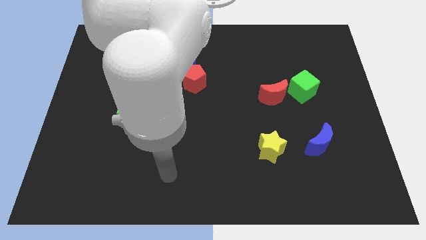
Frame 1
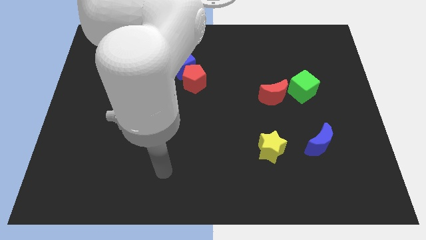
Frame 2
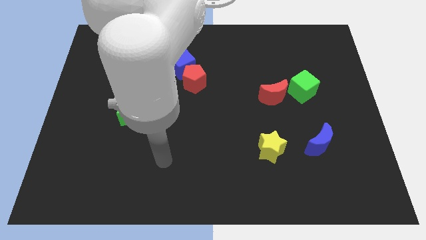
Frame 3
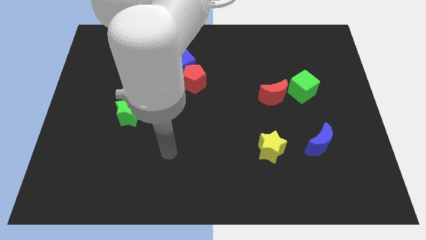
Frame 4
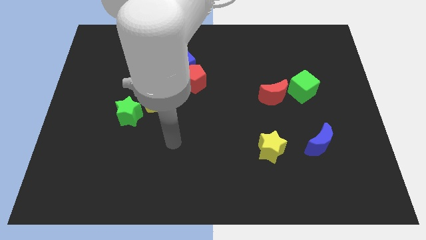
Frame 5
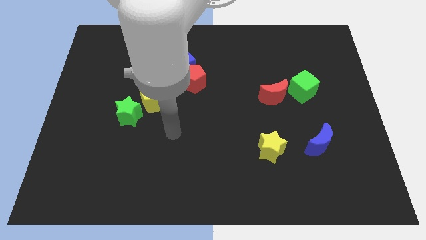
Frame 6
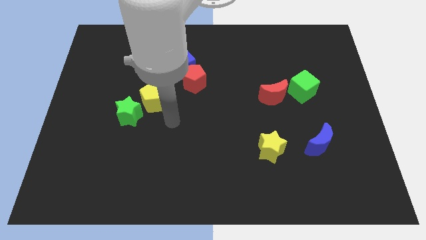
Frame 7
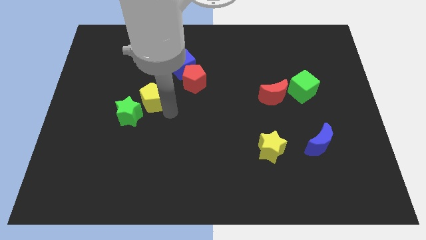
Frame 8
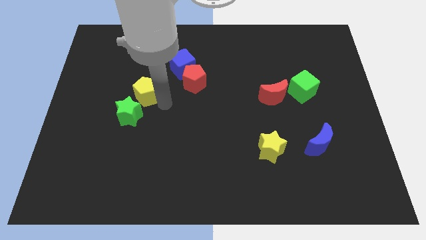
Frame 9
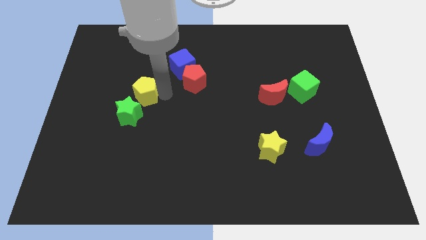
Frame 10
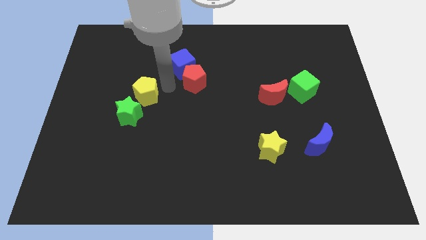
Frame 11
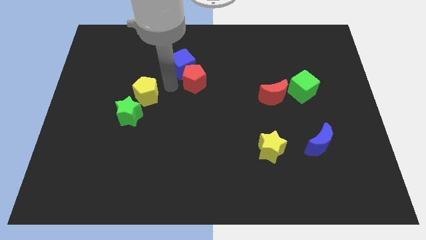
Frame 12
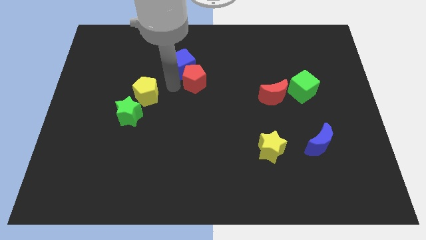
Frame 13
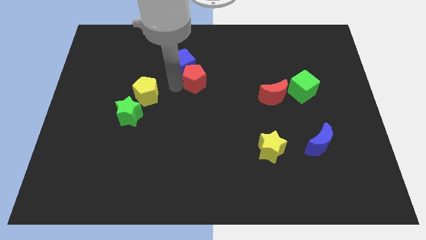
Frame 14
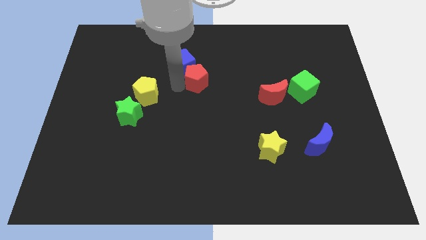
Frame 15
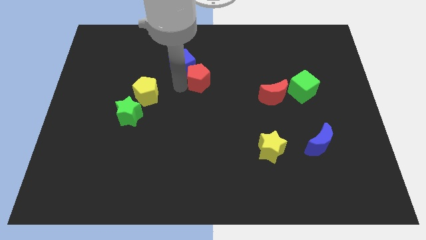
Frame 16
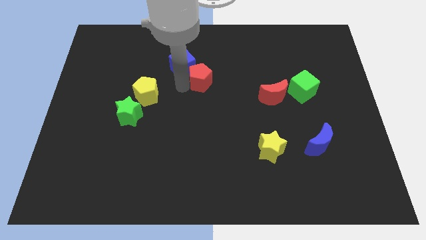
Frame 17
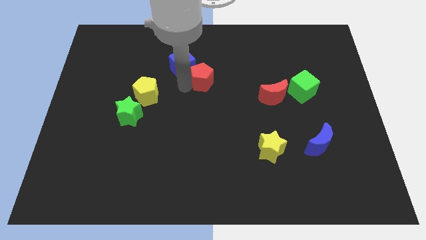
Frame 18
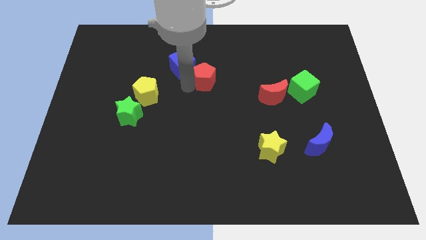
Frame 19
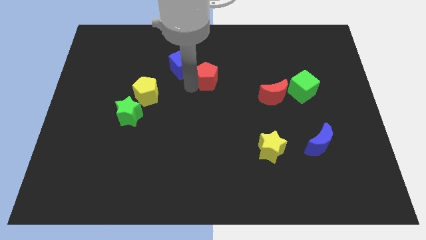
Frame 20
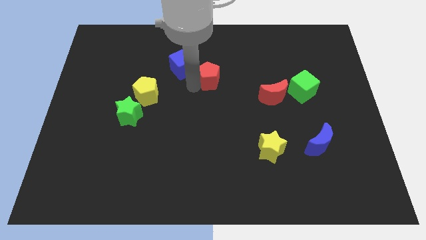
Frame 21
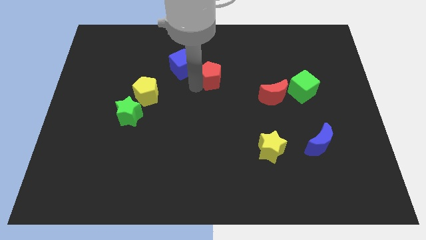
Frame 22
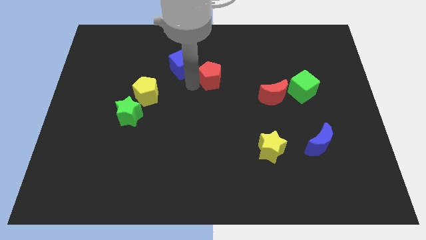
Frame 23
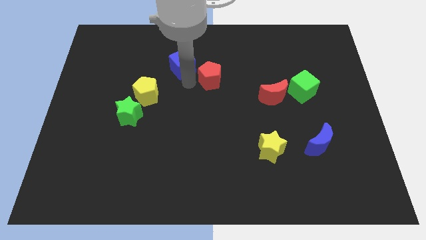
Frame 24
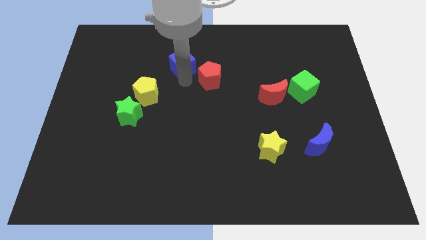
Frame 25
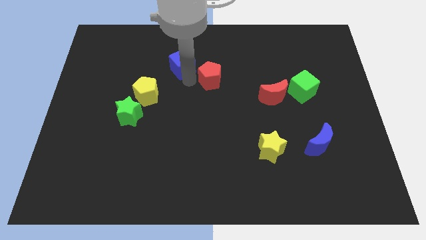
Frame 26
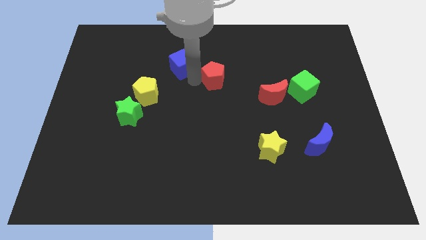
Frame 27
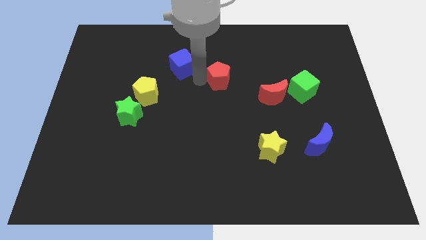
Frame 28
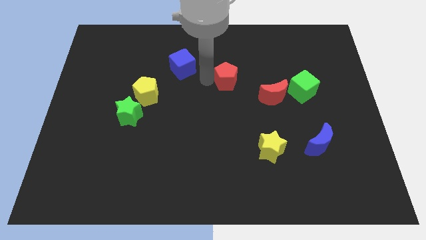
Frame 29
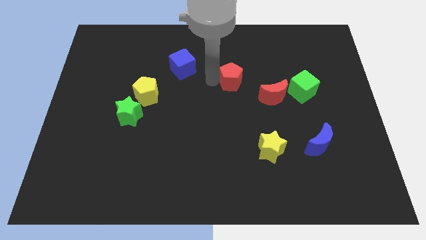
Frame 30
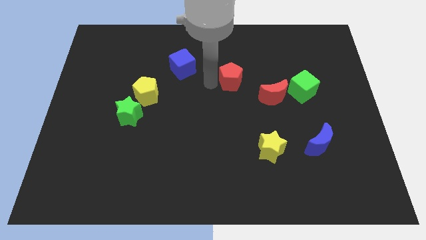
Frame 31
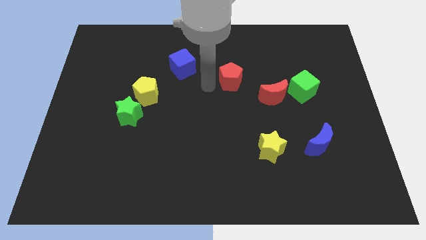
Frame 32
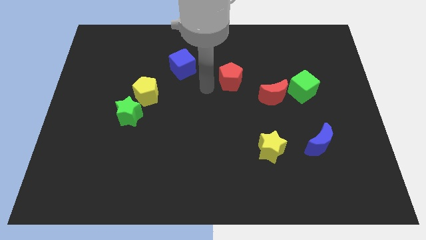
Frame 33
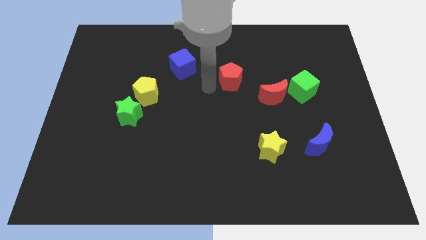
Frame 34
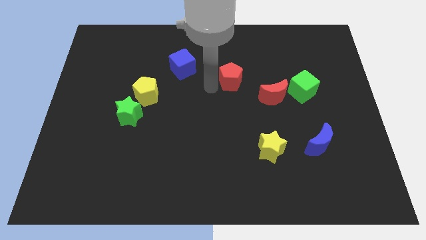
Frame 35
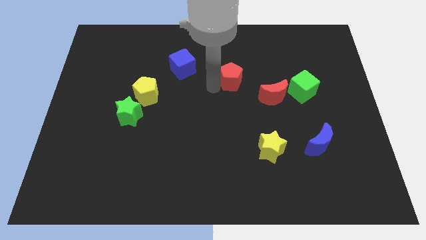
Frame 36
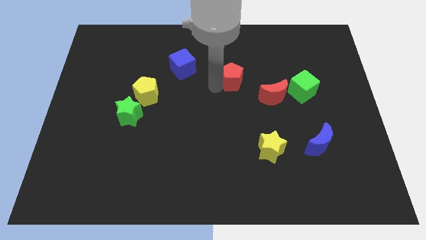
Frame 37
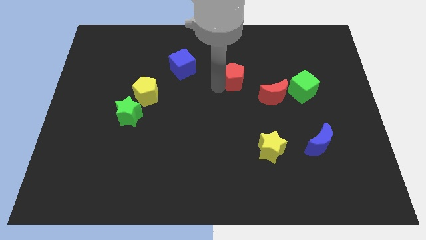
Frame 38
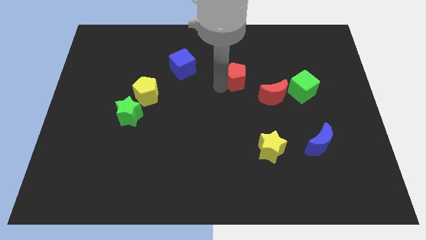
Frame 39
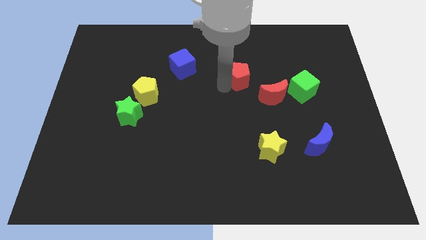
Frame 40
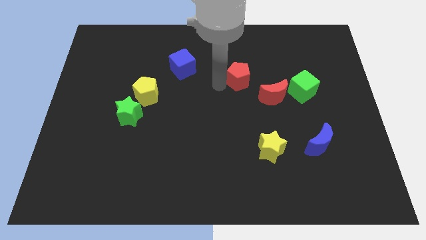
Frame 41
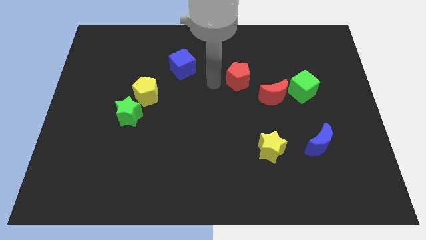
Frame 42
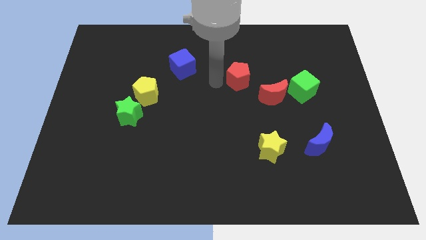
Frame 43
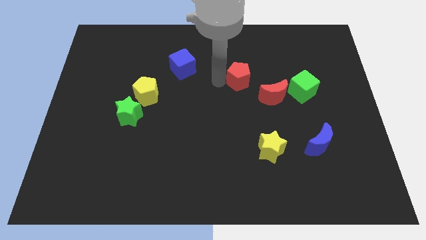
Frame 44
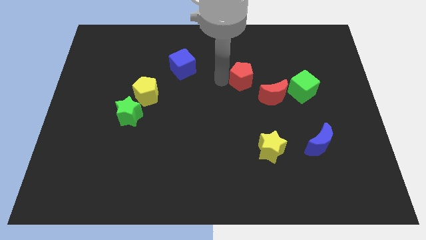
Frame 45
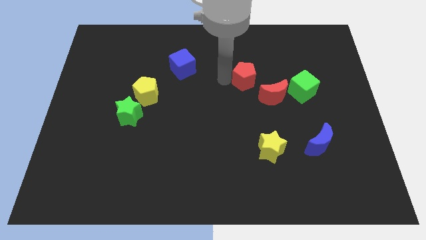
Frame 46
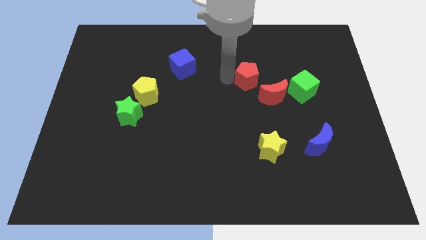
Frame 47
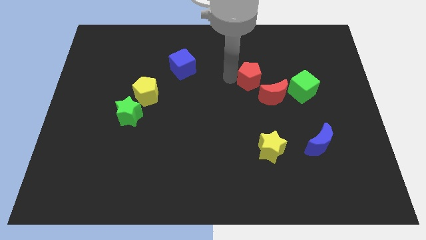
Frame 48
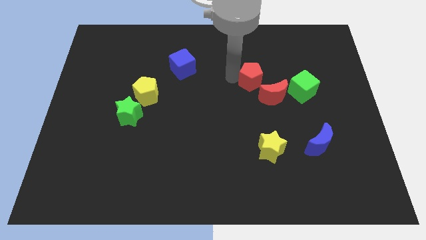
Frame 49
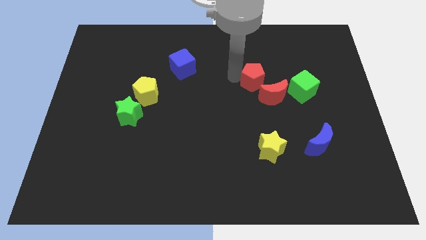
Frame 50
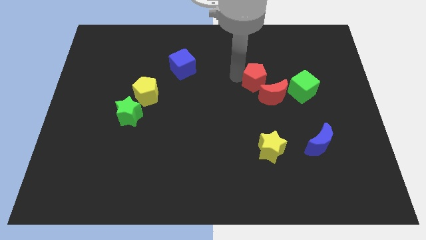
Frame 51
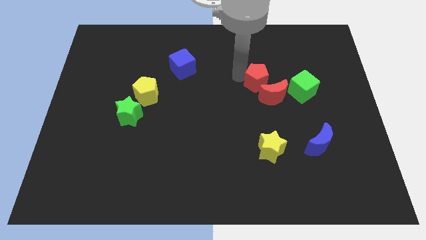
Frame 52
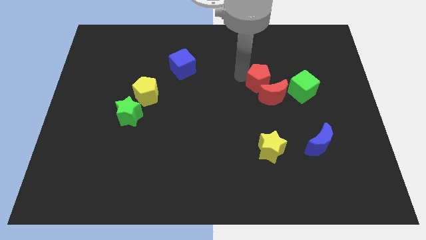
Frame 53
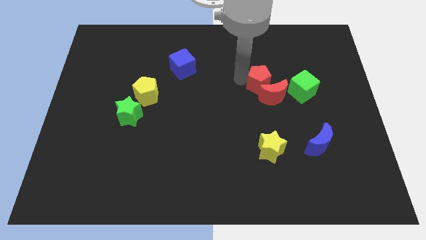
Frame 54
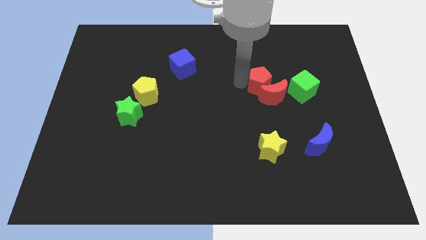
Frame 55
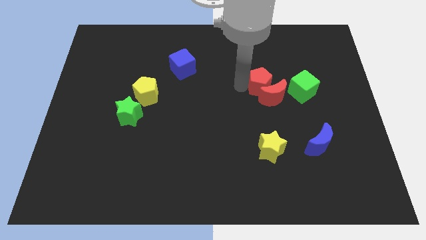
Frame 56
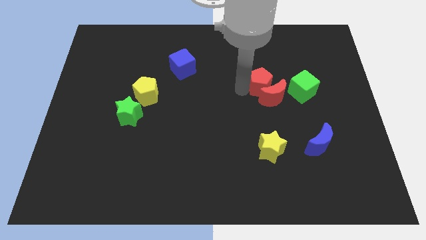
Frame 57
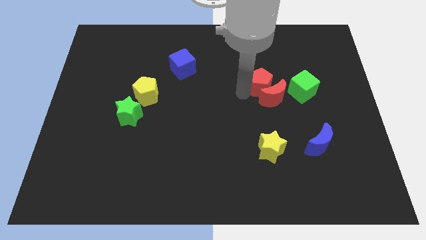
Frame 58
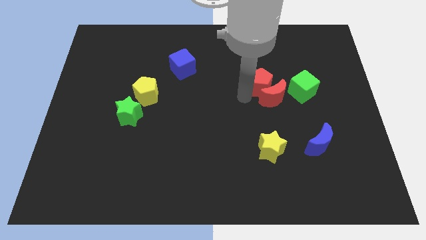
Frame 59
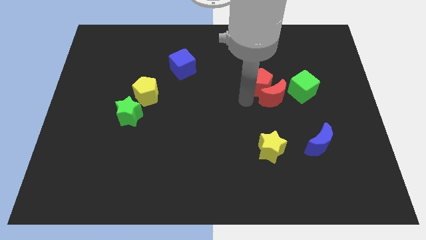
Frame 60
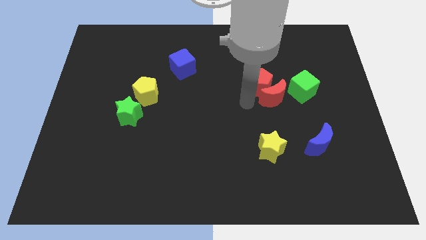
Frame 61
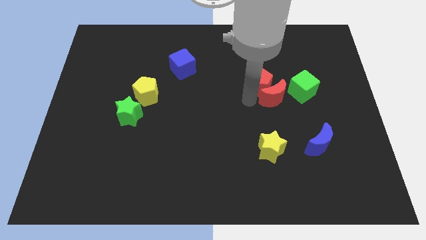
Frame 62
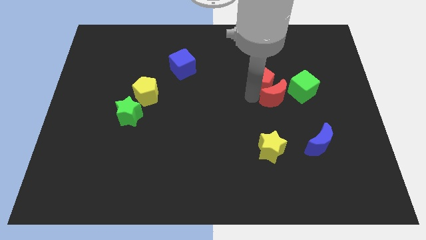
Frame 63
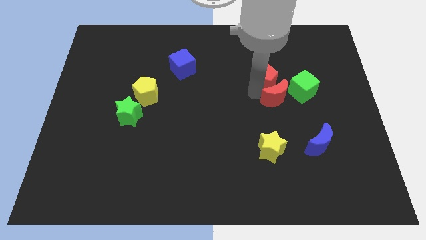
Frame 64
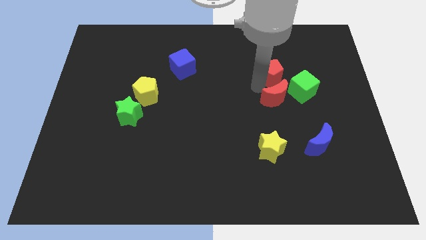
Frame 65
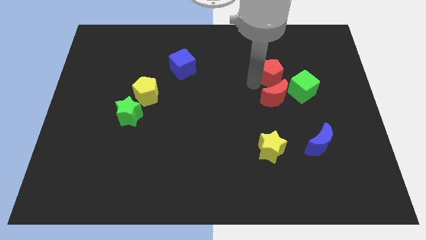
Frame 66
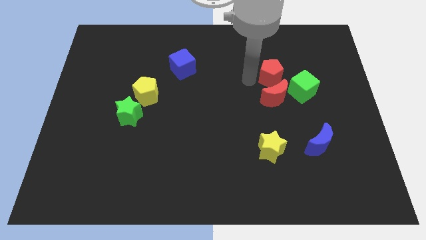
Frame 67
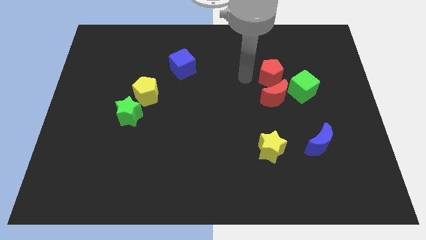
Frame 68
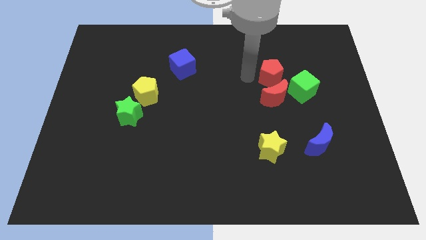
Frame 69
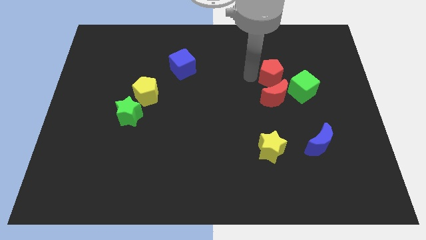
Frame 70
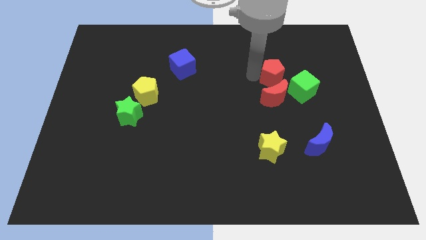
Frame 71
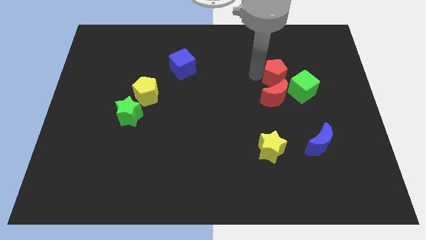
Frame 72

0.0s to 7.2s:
slide the red pentagon to the right

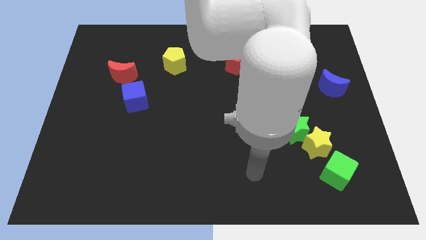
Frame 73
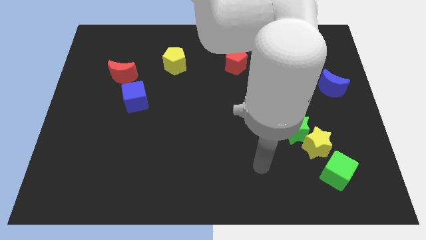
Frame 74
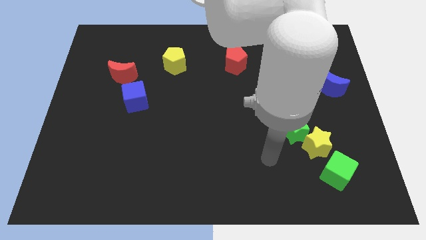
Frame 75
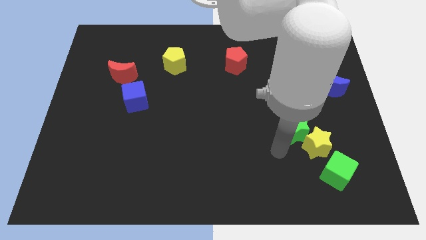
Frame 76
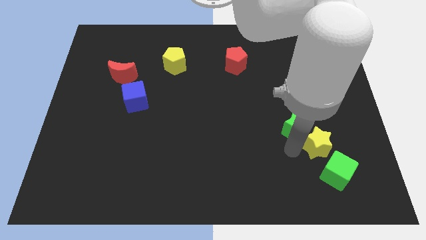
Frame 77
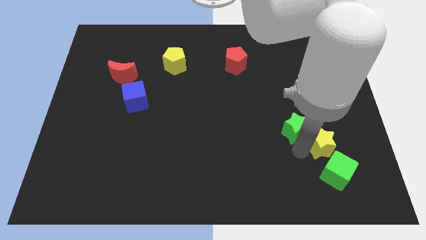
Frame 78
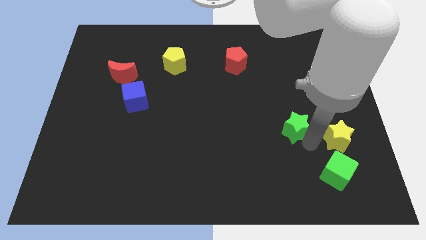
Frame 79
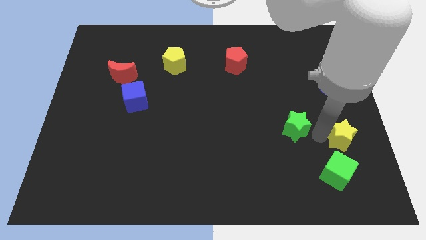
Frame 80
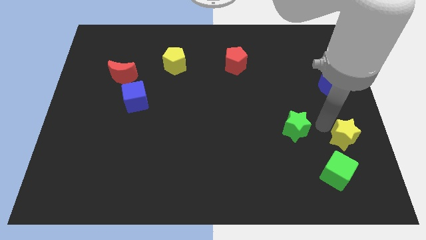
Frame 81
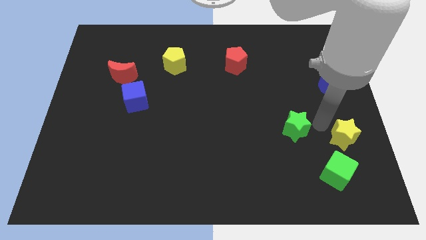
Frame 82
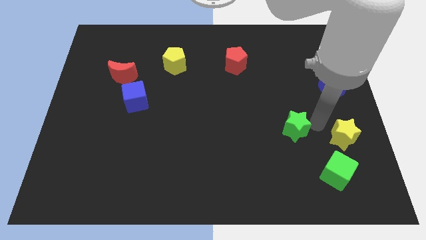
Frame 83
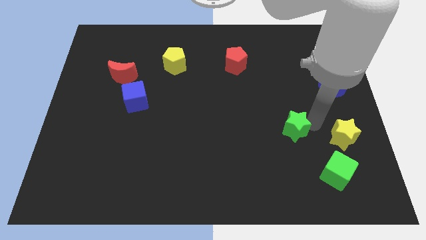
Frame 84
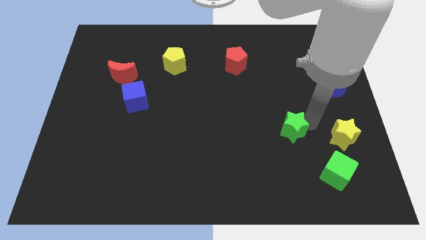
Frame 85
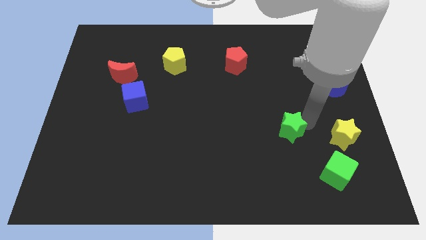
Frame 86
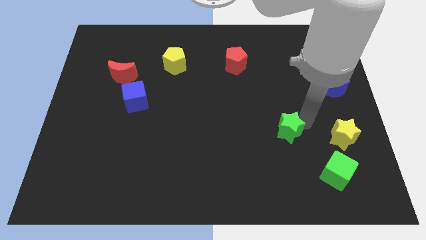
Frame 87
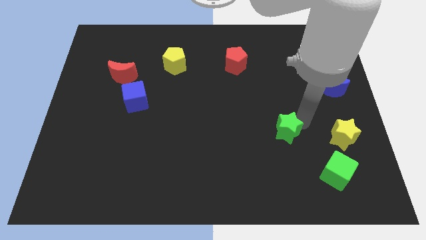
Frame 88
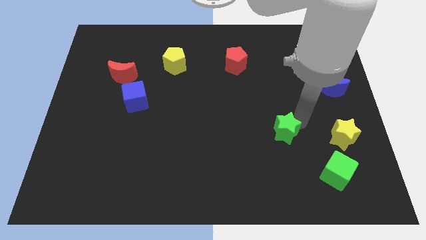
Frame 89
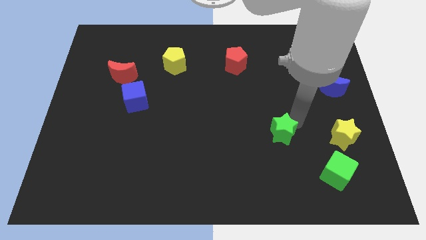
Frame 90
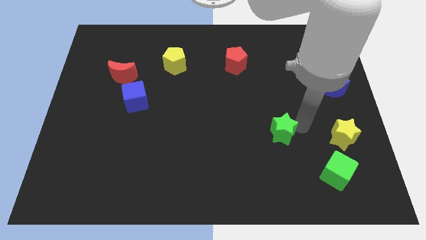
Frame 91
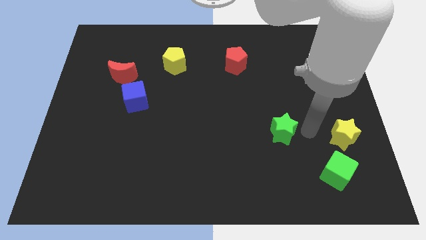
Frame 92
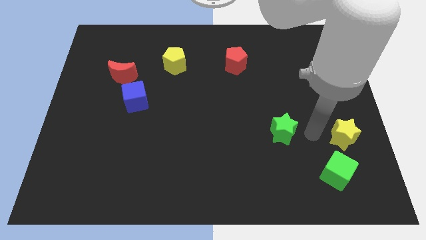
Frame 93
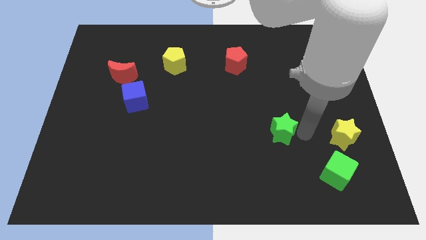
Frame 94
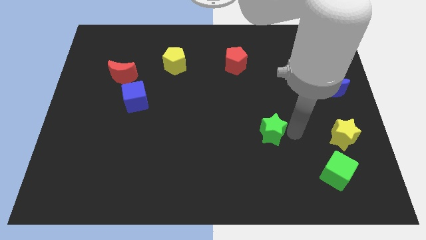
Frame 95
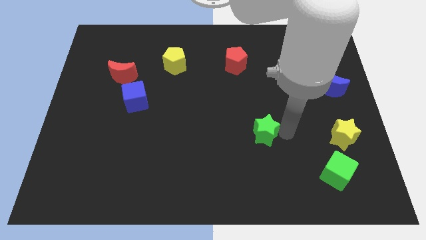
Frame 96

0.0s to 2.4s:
slide the green star left somewhat
